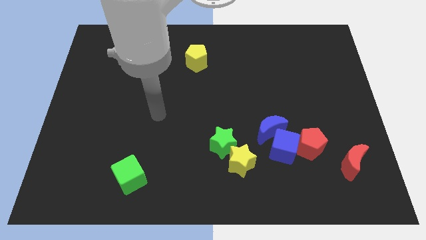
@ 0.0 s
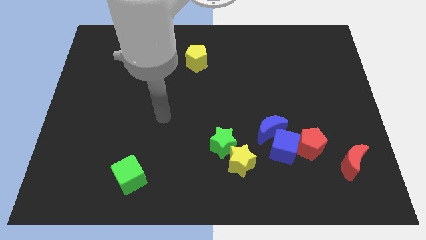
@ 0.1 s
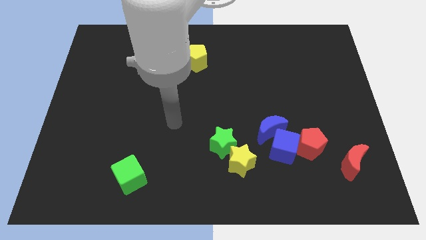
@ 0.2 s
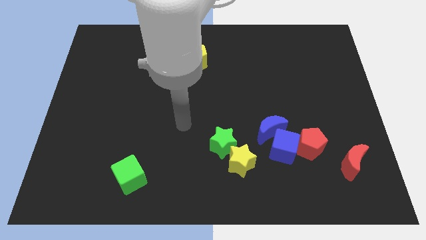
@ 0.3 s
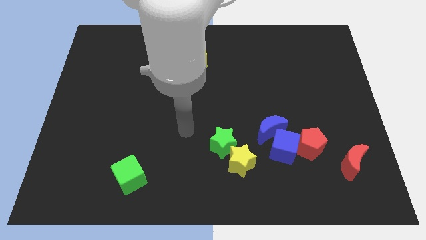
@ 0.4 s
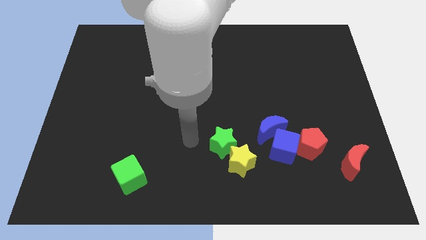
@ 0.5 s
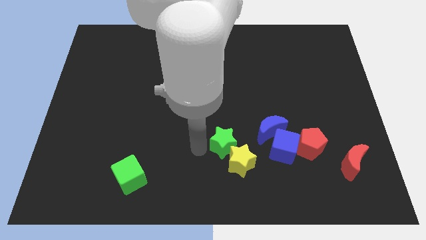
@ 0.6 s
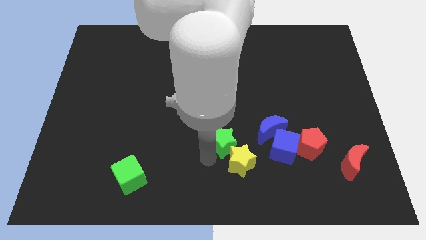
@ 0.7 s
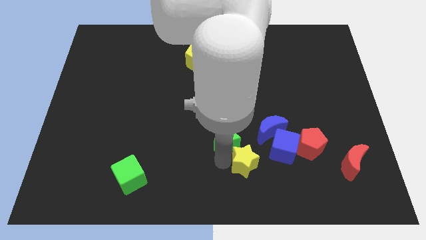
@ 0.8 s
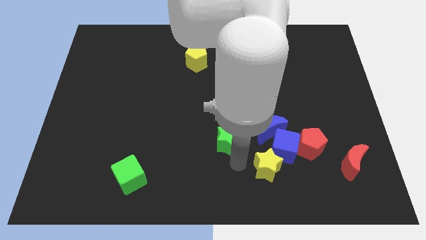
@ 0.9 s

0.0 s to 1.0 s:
pull the green star apart from the yellow star

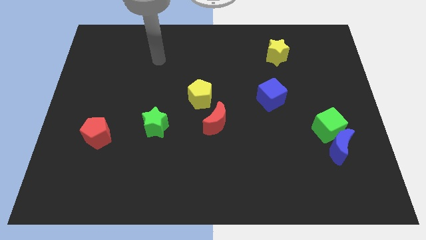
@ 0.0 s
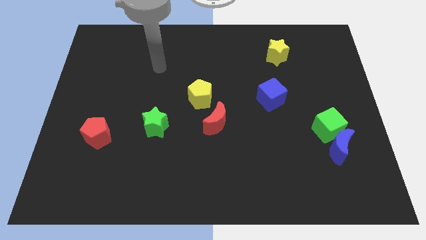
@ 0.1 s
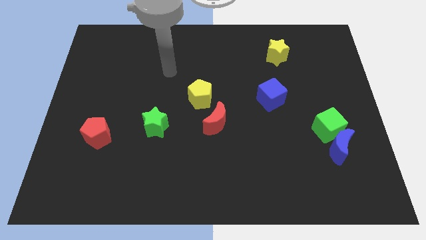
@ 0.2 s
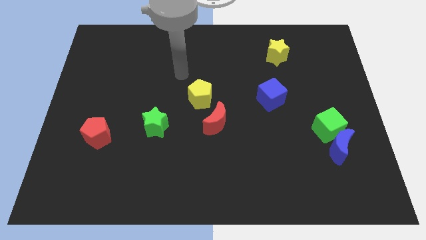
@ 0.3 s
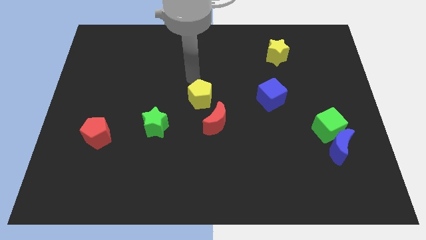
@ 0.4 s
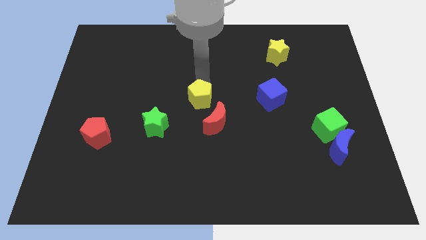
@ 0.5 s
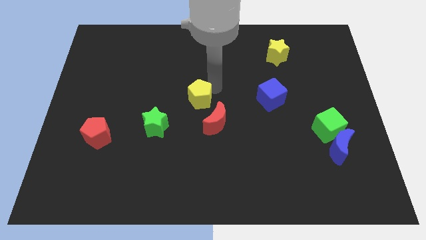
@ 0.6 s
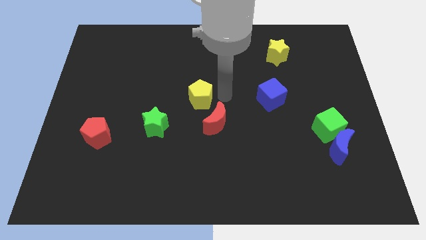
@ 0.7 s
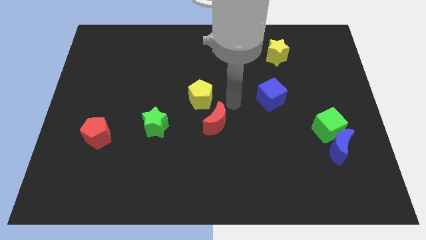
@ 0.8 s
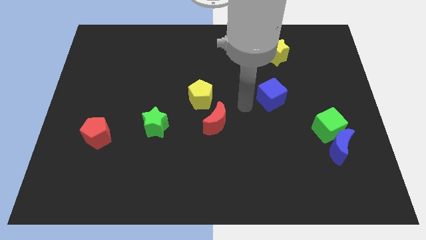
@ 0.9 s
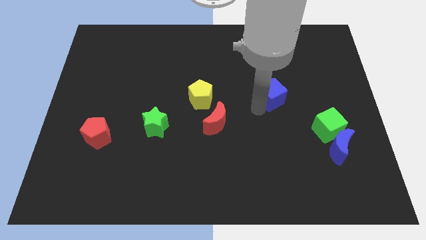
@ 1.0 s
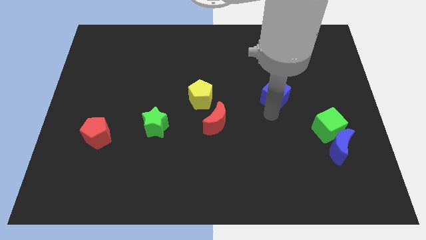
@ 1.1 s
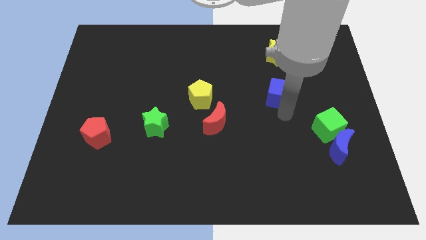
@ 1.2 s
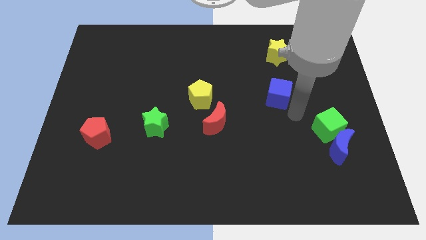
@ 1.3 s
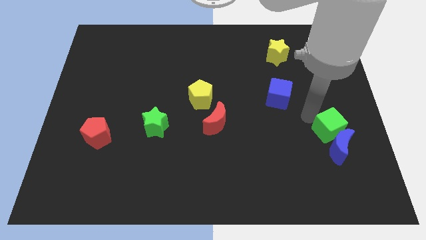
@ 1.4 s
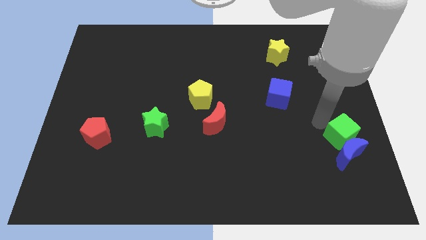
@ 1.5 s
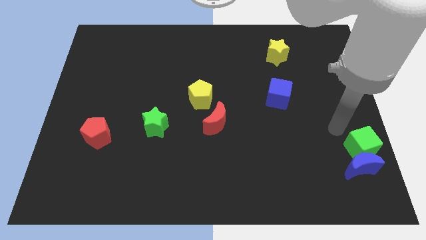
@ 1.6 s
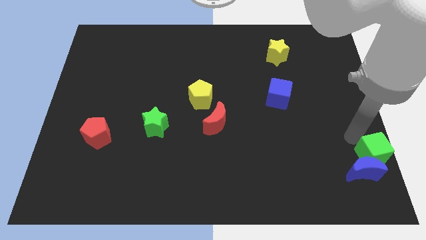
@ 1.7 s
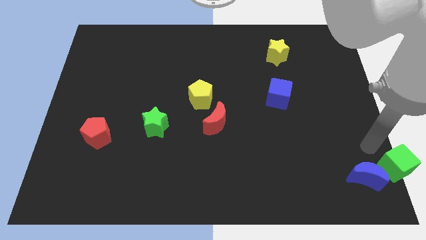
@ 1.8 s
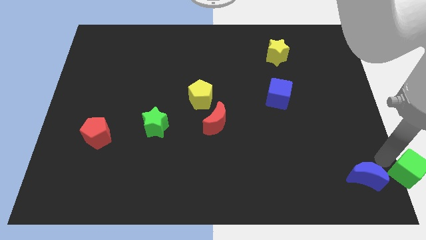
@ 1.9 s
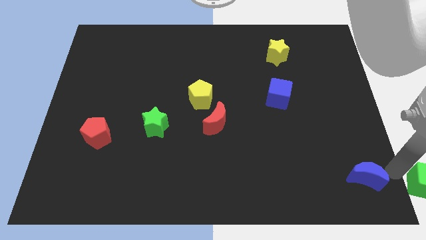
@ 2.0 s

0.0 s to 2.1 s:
move the blue moon away from the green cube

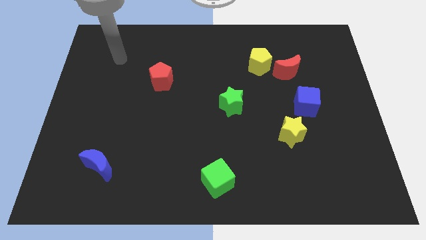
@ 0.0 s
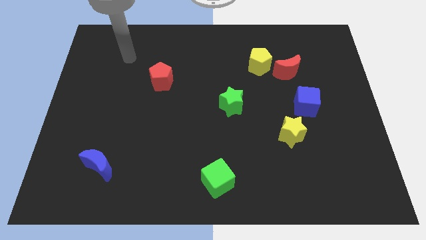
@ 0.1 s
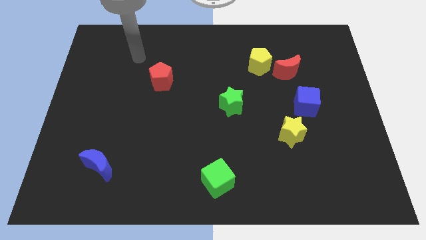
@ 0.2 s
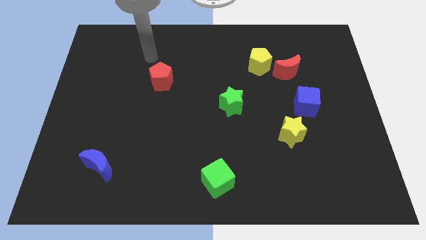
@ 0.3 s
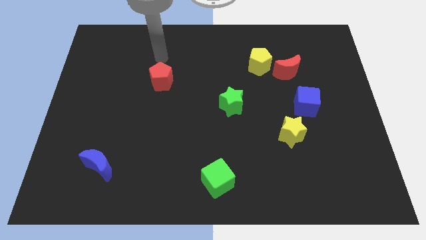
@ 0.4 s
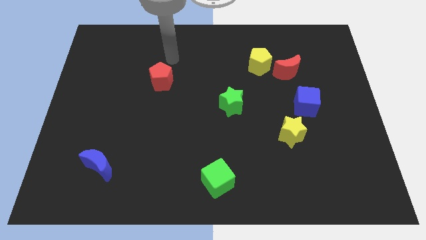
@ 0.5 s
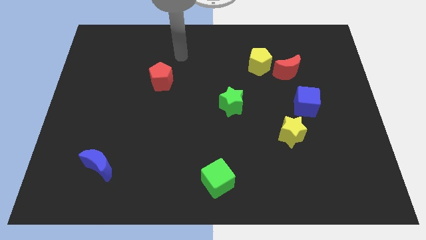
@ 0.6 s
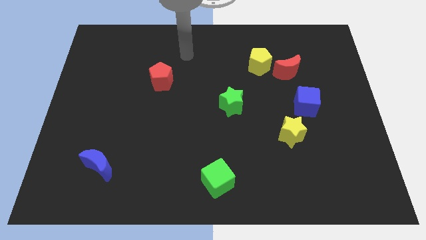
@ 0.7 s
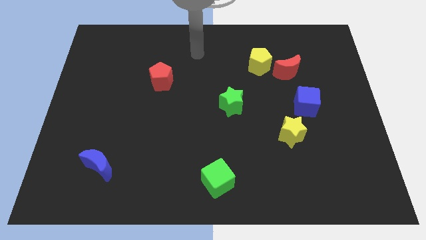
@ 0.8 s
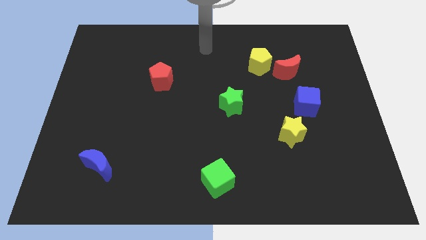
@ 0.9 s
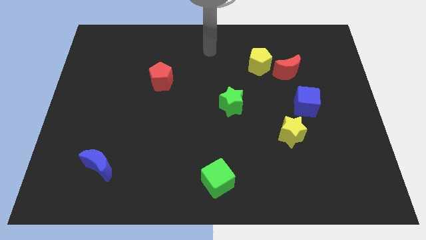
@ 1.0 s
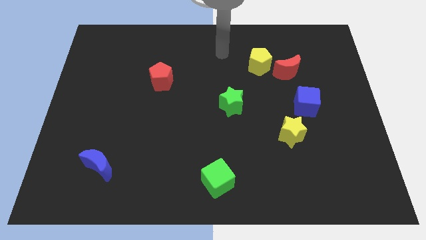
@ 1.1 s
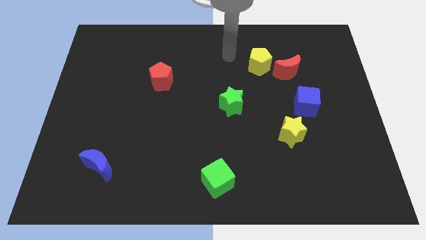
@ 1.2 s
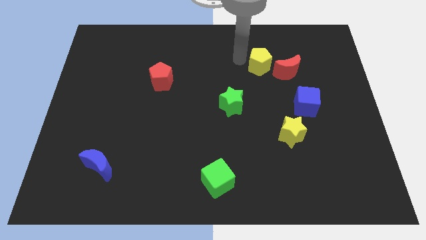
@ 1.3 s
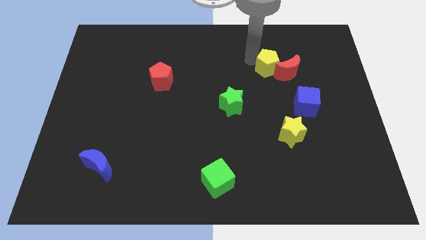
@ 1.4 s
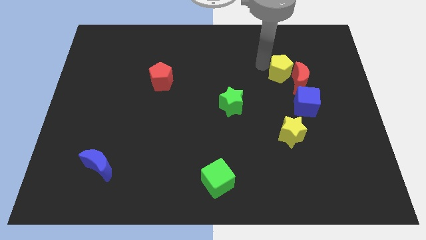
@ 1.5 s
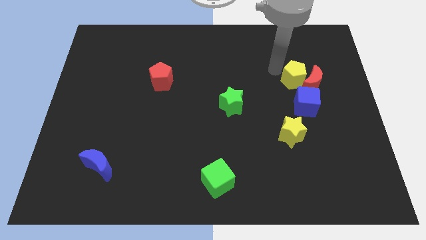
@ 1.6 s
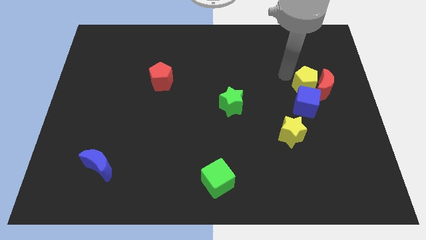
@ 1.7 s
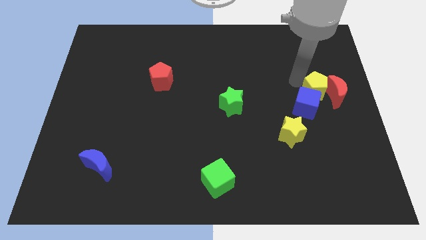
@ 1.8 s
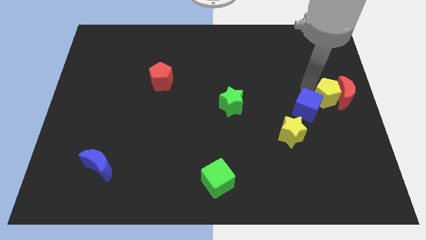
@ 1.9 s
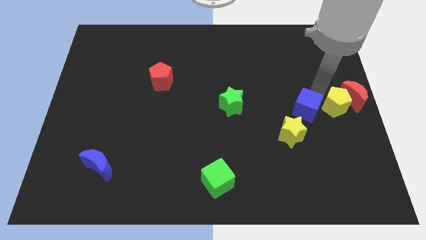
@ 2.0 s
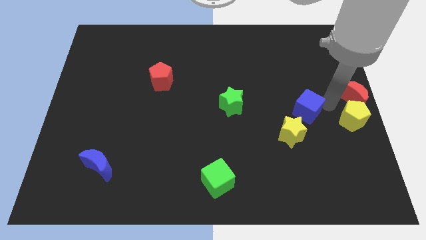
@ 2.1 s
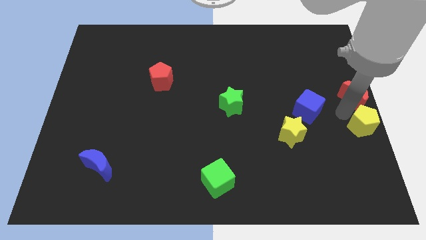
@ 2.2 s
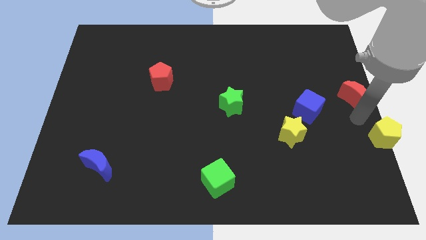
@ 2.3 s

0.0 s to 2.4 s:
move the red moon away from the yellow pentagon

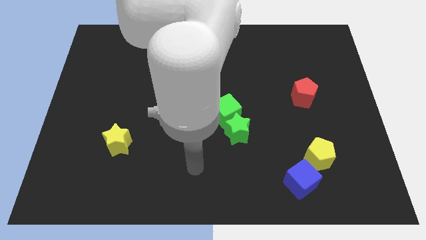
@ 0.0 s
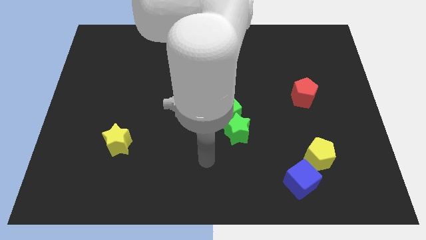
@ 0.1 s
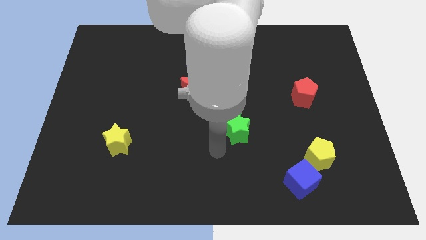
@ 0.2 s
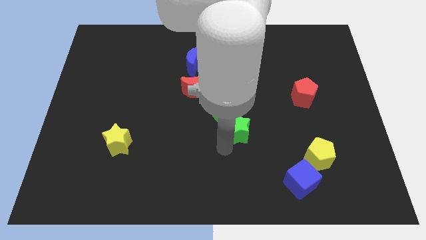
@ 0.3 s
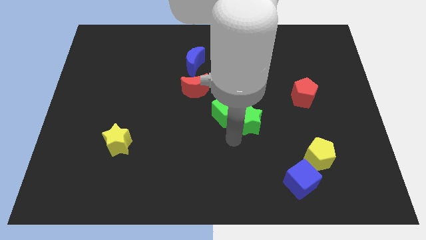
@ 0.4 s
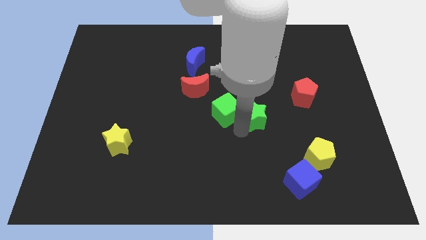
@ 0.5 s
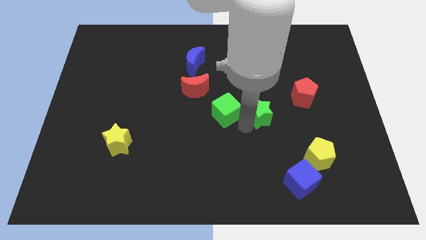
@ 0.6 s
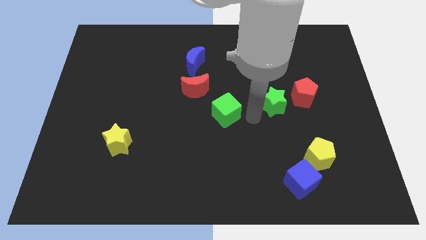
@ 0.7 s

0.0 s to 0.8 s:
move the green cube away from the green star

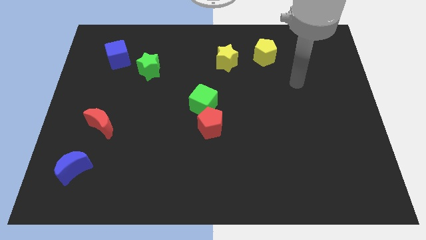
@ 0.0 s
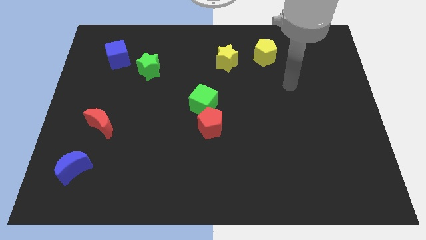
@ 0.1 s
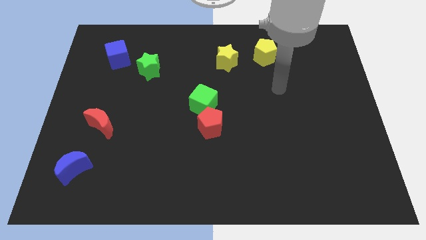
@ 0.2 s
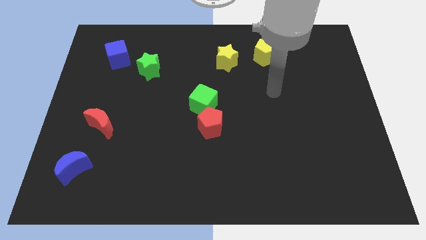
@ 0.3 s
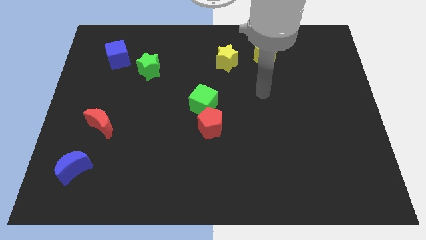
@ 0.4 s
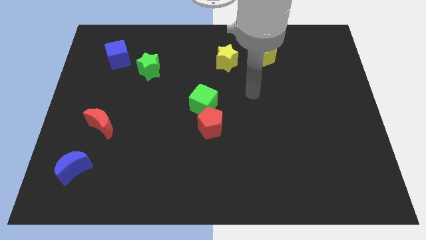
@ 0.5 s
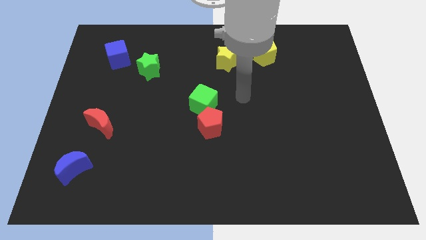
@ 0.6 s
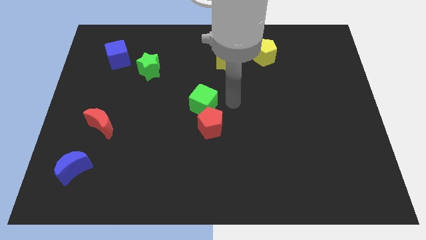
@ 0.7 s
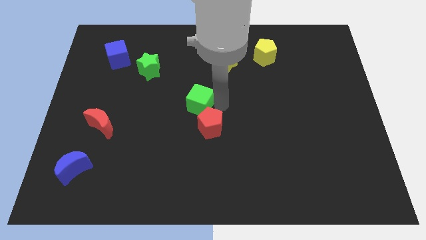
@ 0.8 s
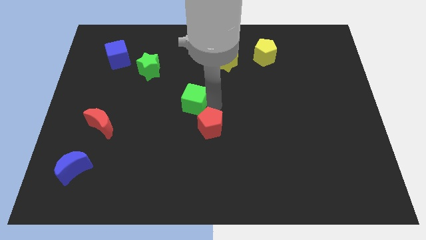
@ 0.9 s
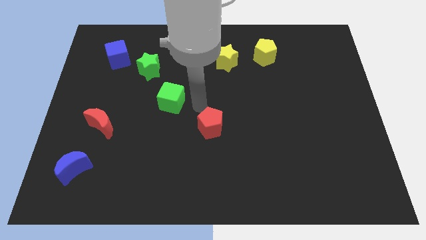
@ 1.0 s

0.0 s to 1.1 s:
separate the red pentagon from the green cube

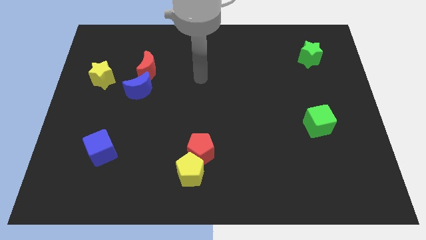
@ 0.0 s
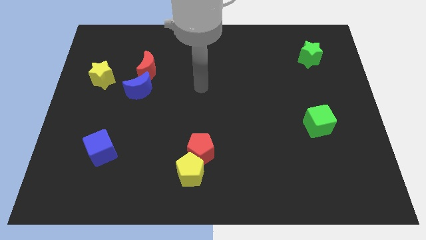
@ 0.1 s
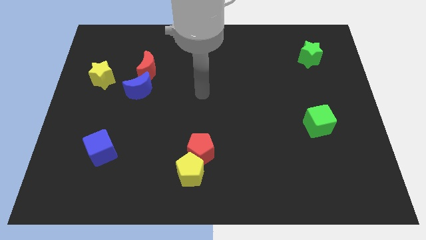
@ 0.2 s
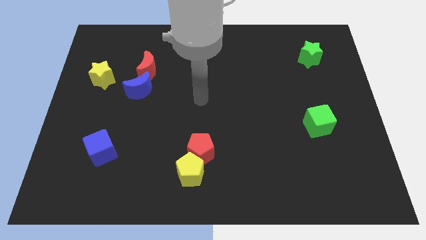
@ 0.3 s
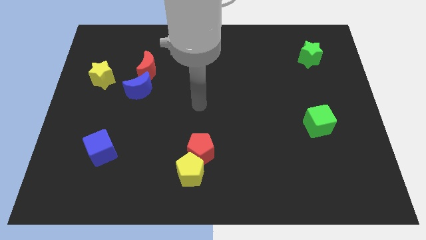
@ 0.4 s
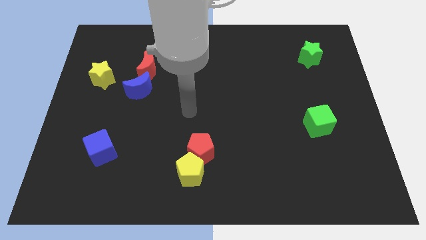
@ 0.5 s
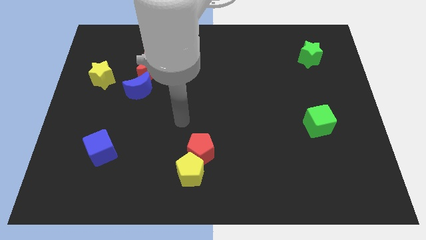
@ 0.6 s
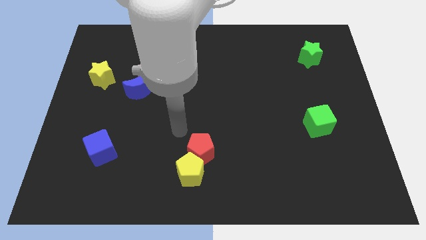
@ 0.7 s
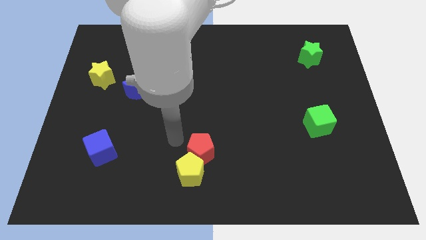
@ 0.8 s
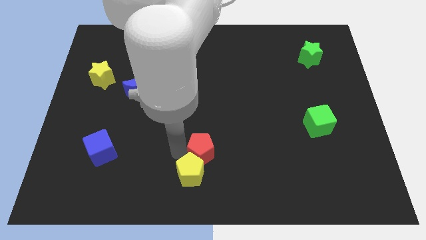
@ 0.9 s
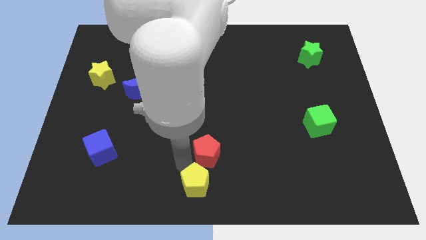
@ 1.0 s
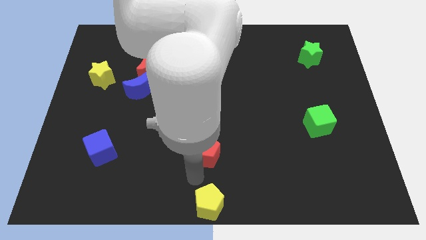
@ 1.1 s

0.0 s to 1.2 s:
pull the red pentagon apart from the yellow pentagon

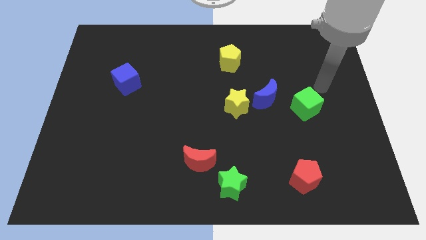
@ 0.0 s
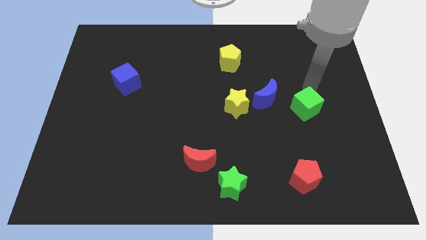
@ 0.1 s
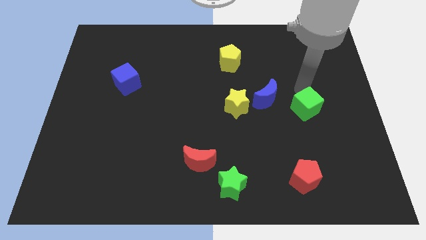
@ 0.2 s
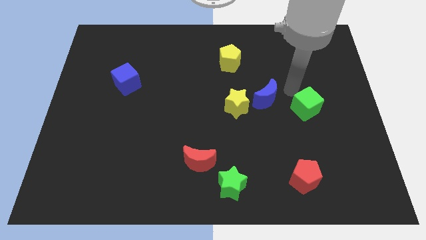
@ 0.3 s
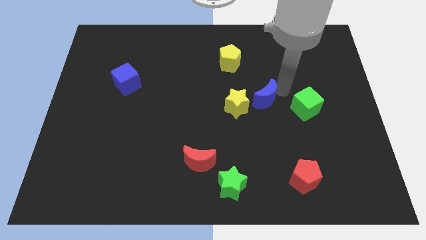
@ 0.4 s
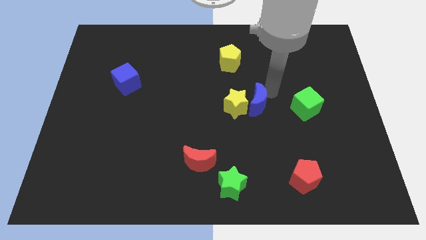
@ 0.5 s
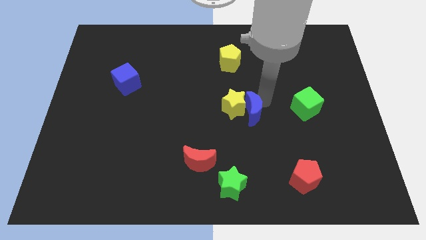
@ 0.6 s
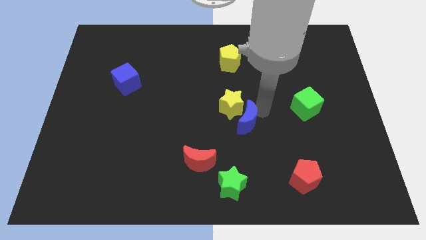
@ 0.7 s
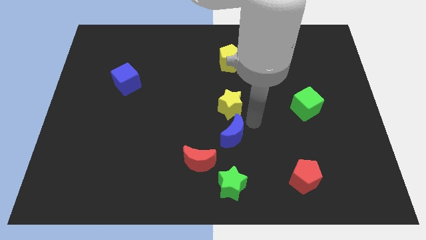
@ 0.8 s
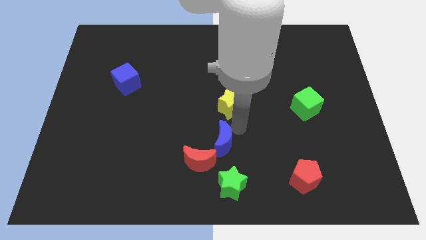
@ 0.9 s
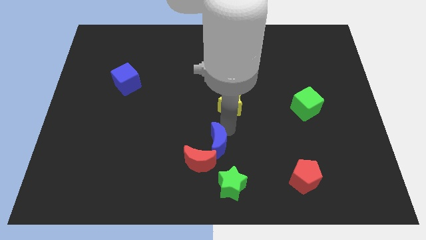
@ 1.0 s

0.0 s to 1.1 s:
pull the yellow star apart from the blue moon
